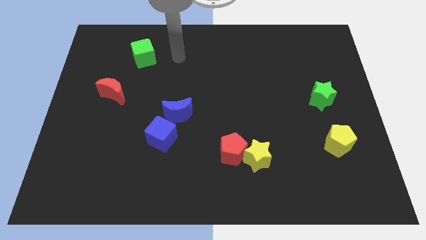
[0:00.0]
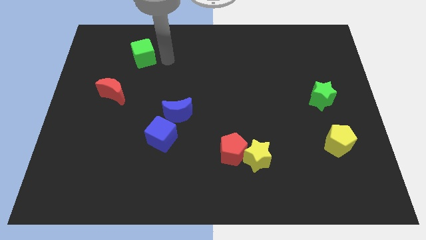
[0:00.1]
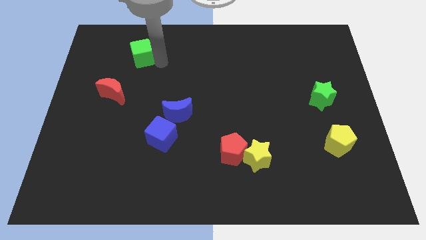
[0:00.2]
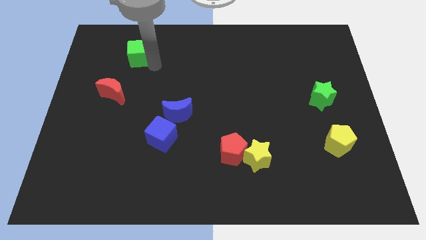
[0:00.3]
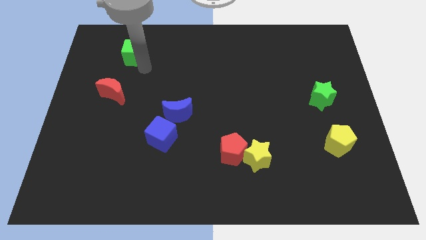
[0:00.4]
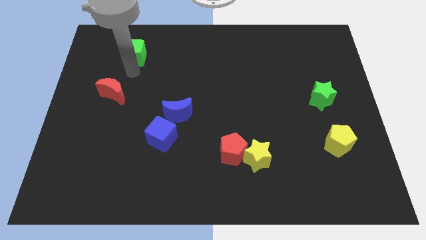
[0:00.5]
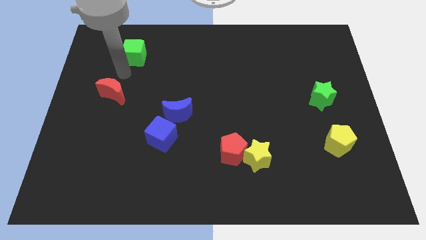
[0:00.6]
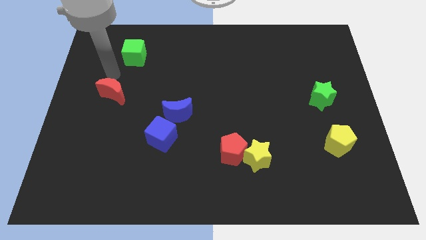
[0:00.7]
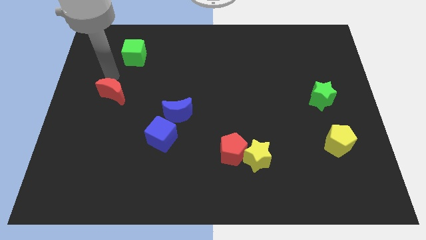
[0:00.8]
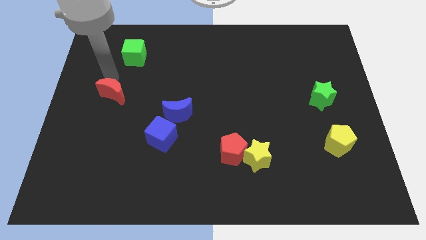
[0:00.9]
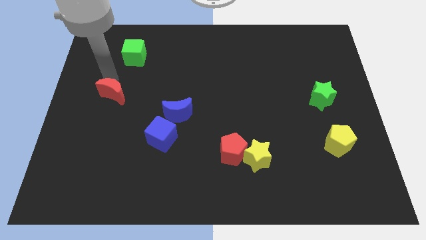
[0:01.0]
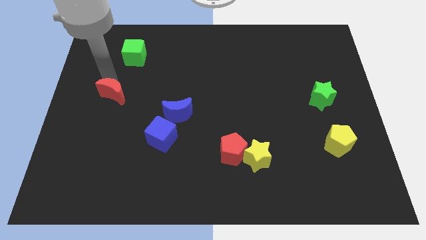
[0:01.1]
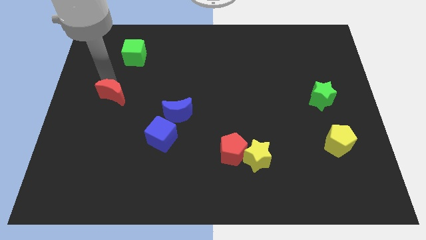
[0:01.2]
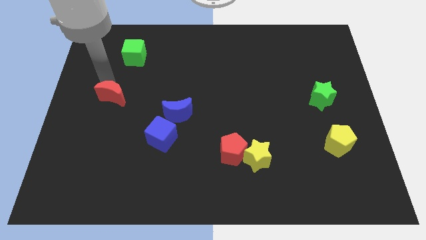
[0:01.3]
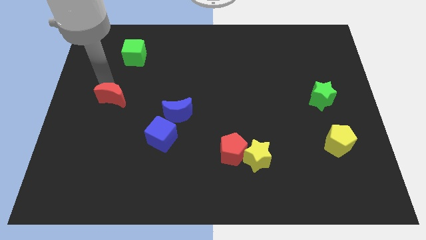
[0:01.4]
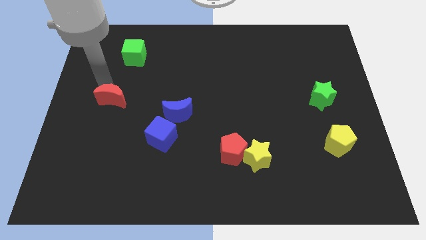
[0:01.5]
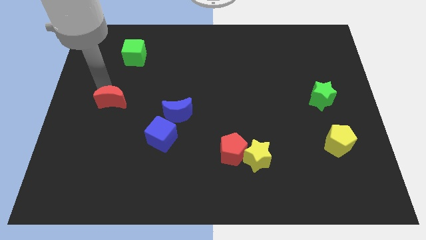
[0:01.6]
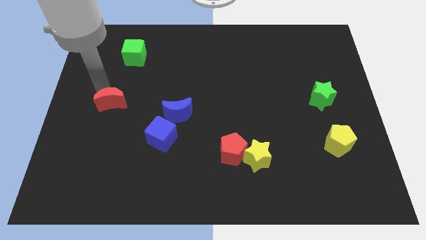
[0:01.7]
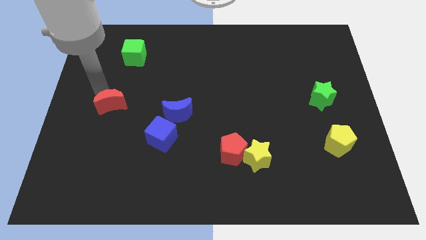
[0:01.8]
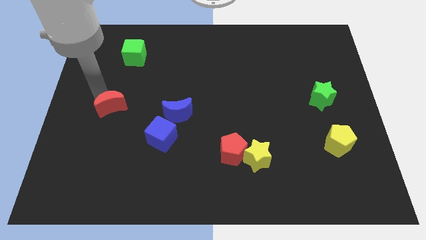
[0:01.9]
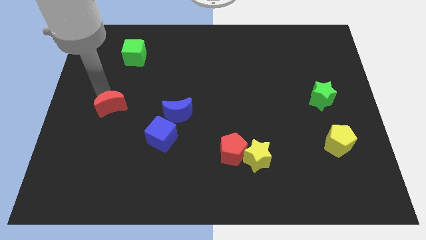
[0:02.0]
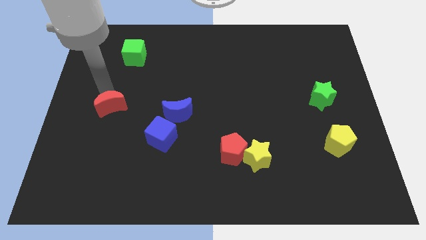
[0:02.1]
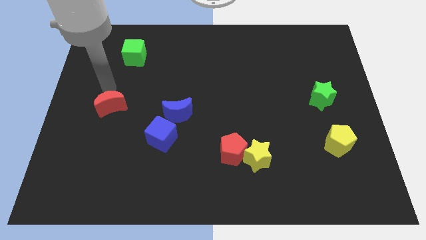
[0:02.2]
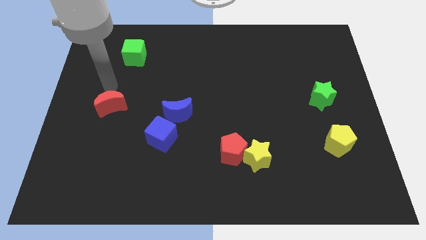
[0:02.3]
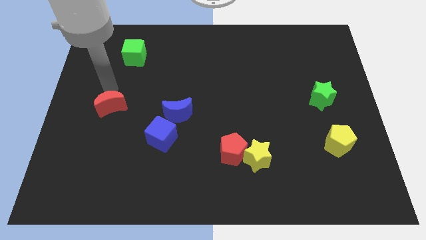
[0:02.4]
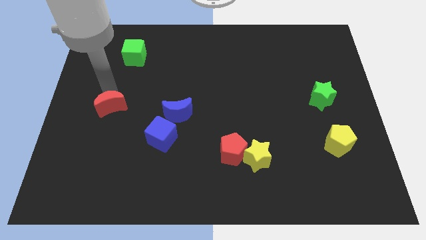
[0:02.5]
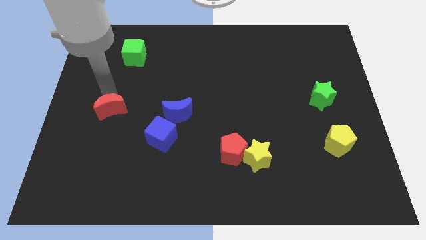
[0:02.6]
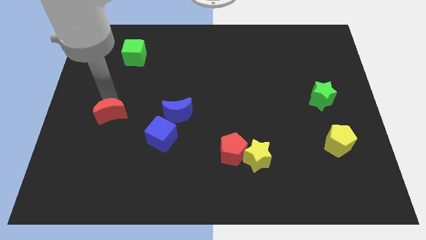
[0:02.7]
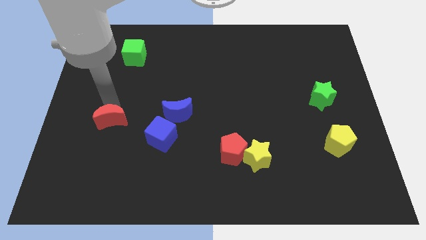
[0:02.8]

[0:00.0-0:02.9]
slightly slide the red moon down

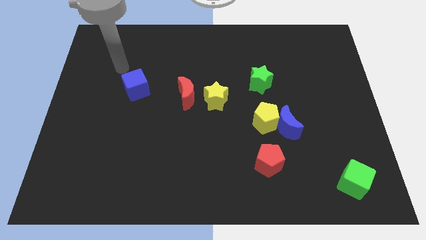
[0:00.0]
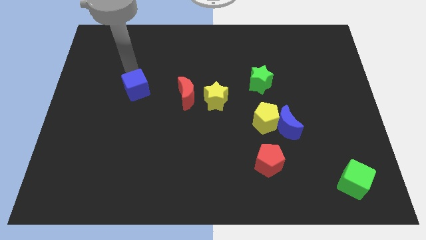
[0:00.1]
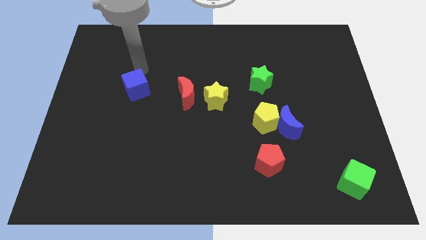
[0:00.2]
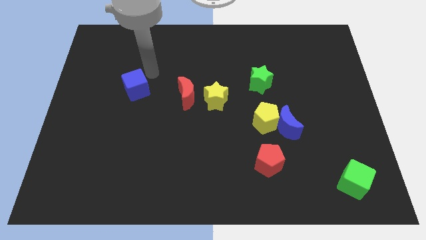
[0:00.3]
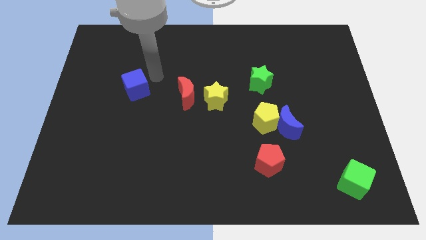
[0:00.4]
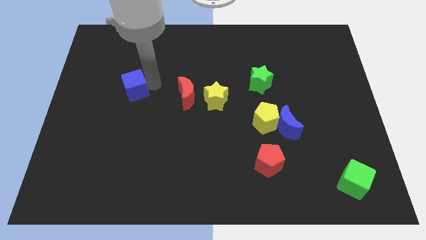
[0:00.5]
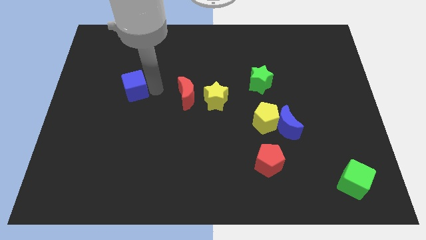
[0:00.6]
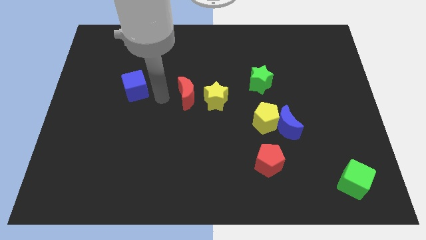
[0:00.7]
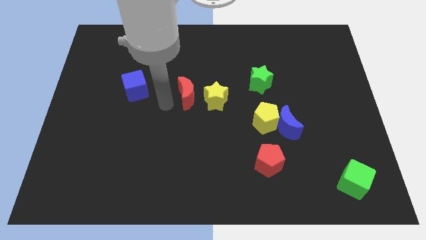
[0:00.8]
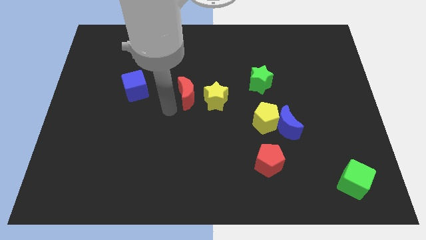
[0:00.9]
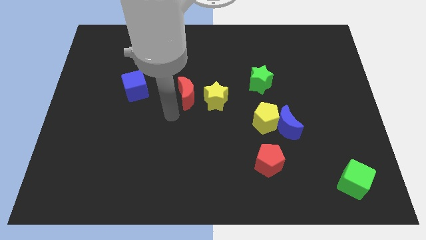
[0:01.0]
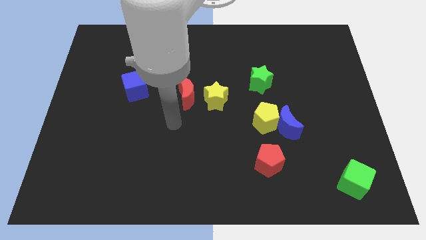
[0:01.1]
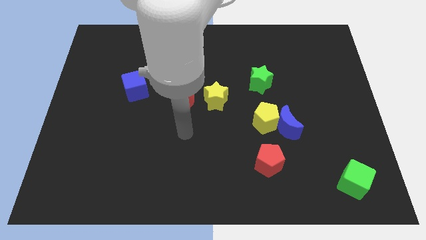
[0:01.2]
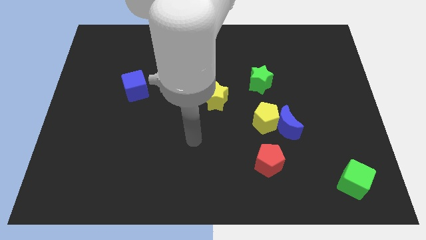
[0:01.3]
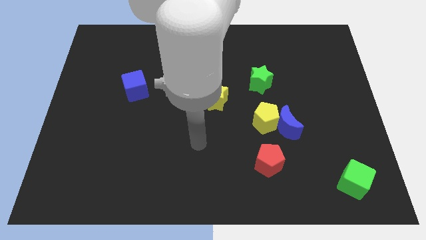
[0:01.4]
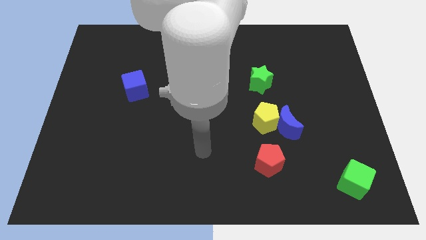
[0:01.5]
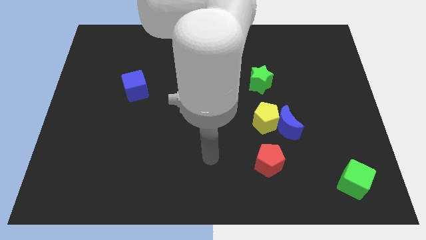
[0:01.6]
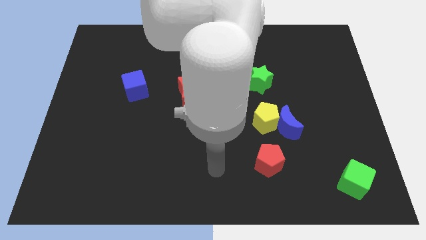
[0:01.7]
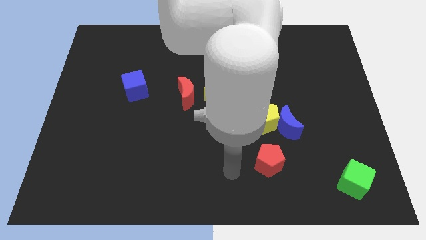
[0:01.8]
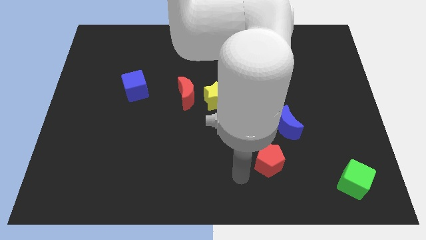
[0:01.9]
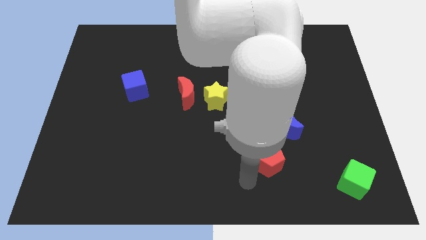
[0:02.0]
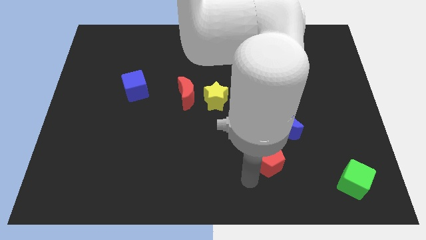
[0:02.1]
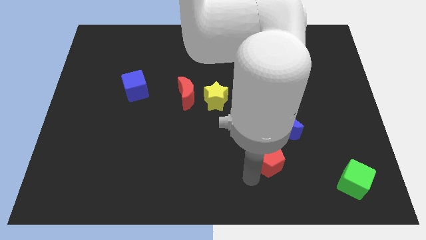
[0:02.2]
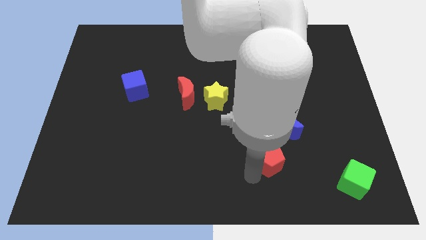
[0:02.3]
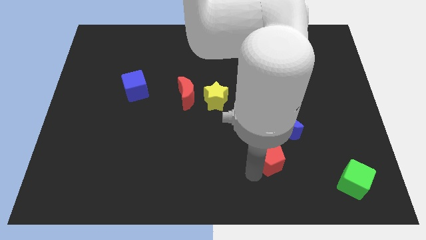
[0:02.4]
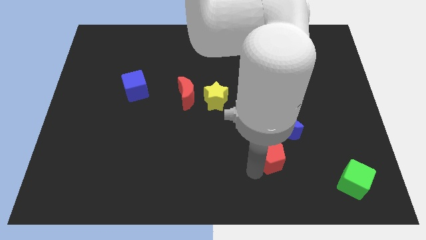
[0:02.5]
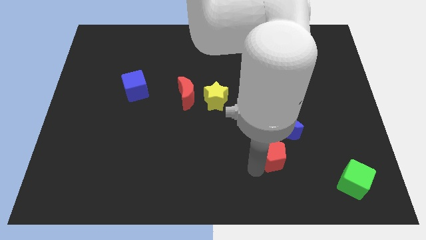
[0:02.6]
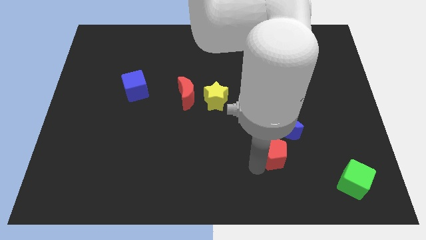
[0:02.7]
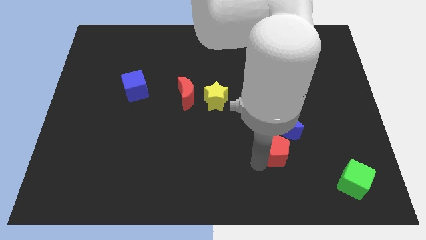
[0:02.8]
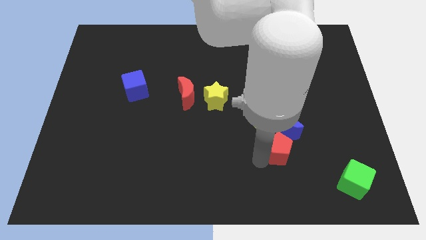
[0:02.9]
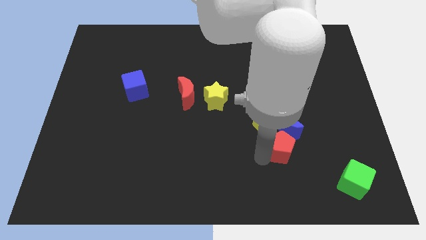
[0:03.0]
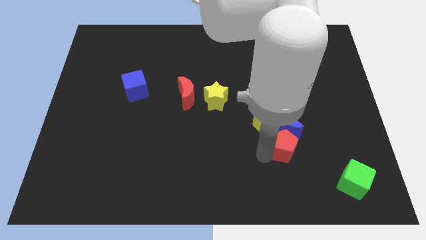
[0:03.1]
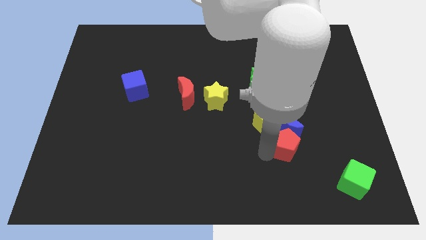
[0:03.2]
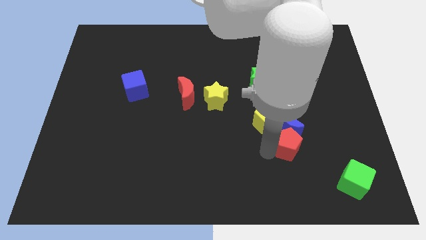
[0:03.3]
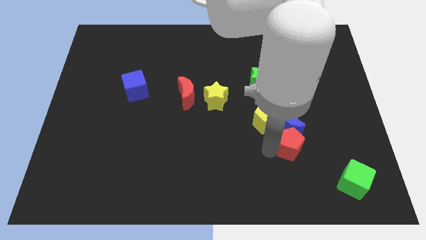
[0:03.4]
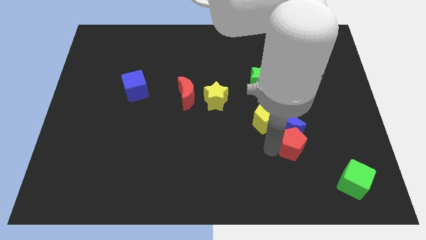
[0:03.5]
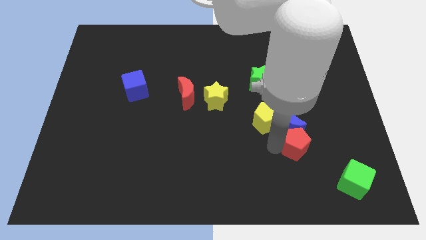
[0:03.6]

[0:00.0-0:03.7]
slide the red pentagon up and right diagonally a bit

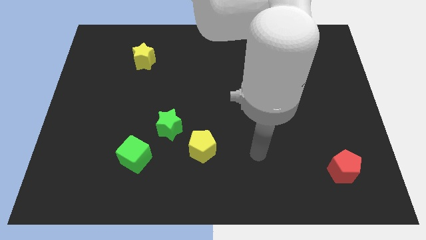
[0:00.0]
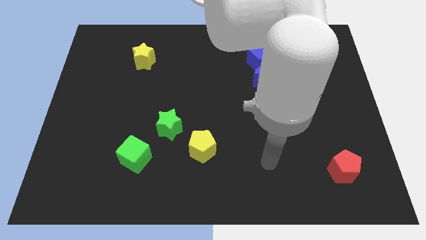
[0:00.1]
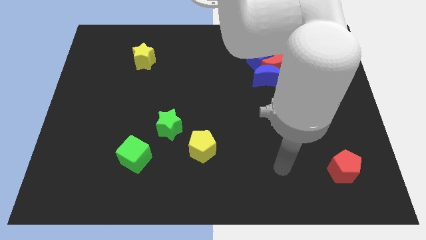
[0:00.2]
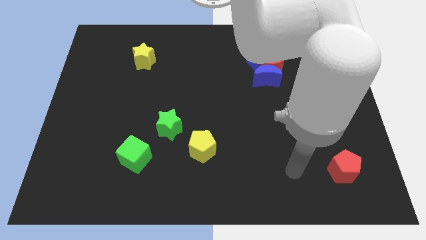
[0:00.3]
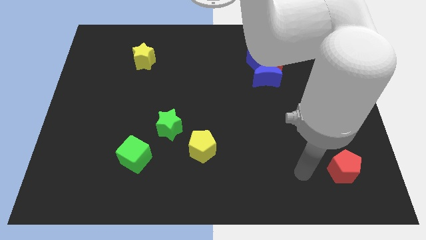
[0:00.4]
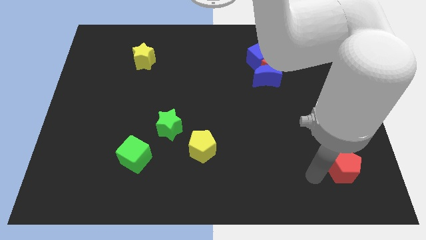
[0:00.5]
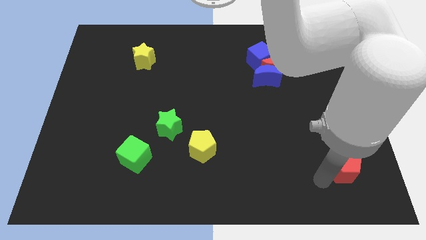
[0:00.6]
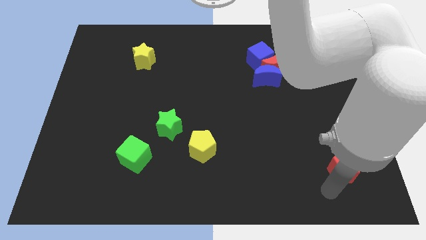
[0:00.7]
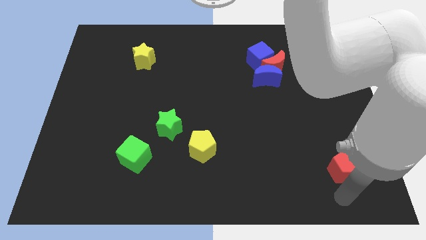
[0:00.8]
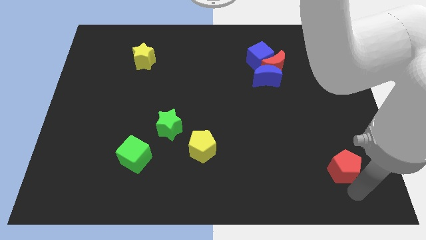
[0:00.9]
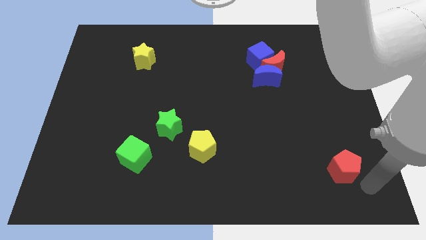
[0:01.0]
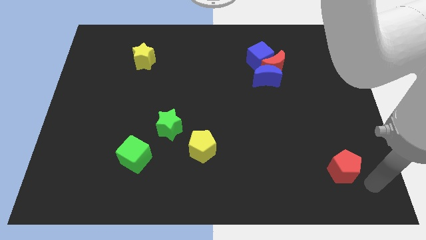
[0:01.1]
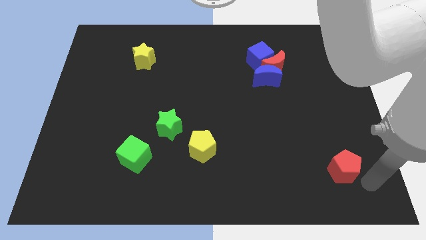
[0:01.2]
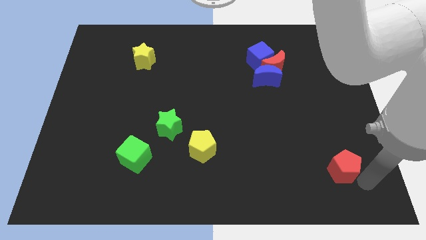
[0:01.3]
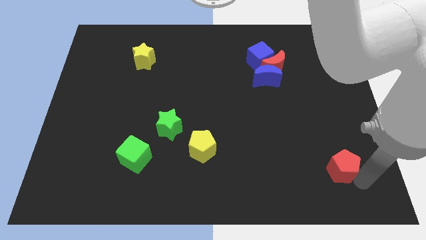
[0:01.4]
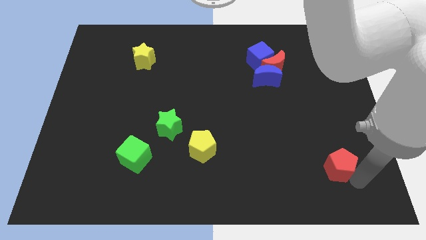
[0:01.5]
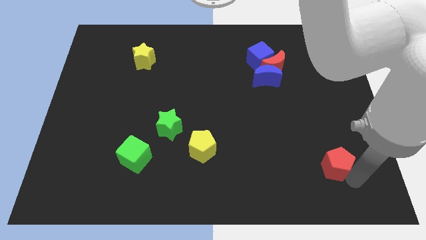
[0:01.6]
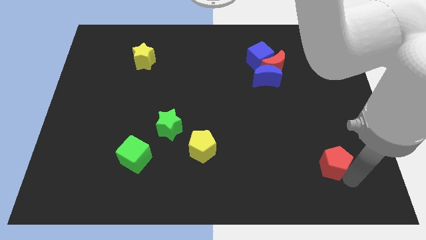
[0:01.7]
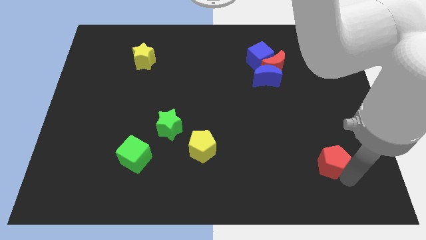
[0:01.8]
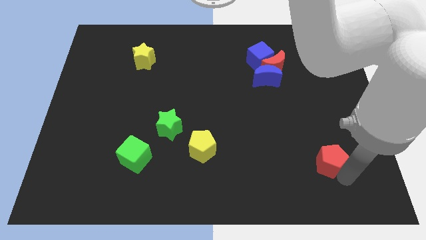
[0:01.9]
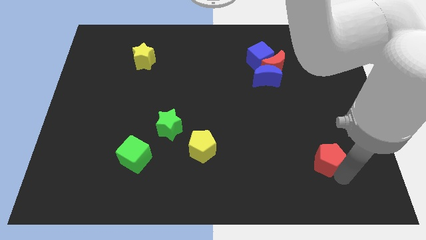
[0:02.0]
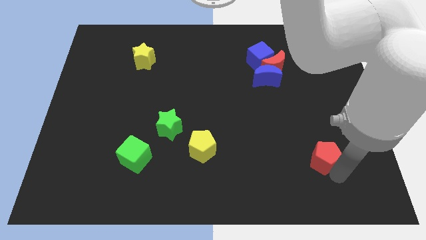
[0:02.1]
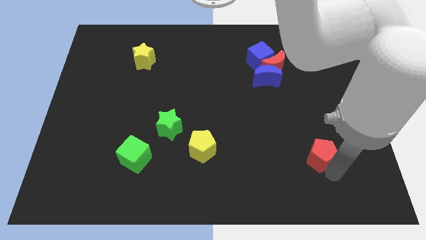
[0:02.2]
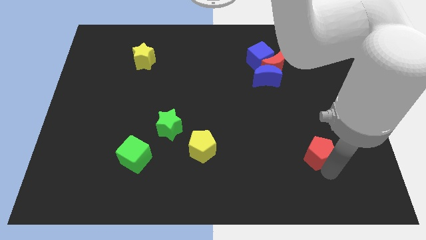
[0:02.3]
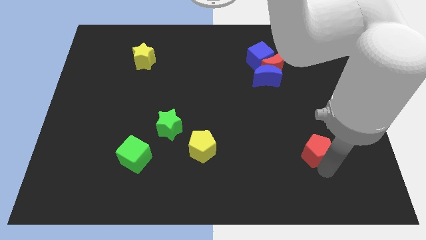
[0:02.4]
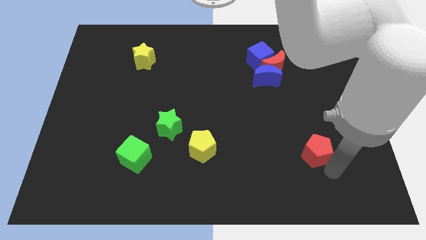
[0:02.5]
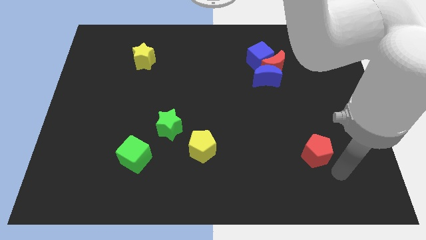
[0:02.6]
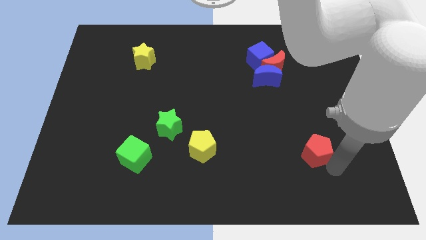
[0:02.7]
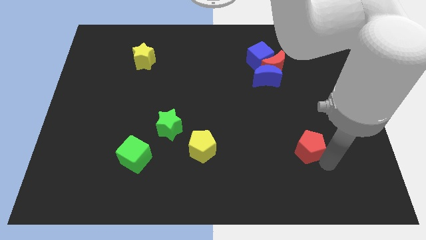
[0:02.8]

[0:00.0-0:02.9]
push the red pentagon upwards and to the left diagonally a bit
